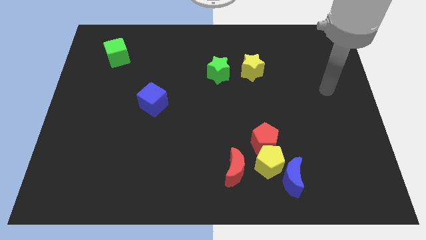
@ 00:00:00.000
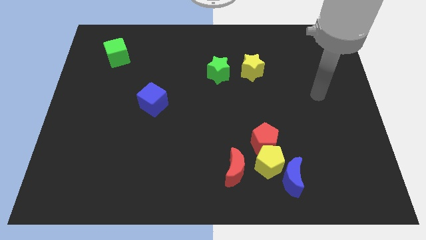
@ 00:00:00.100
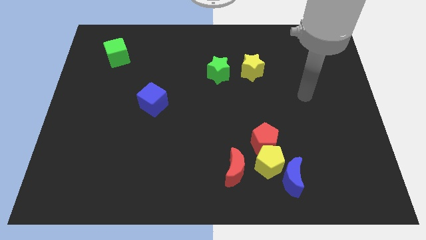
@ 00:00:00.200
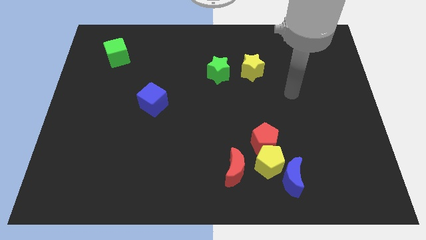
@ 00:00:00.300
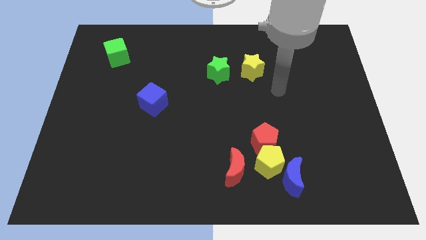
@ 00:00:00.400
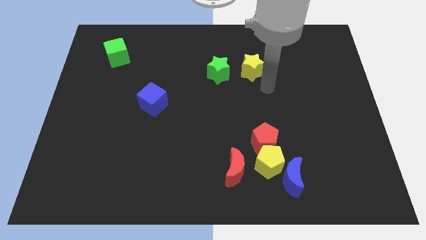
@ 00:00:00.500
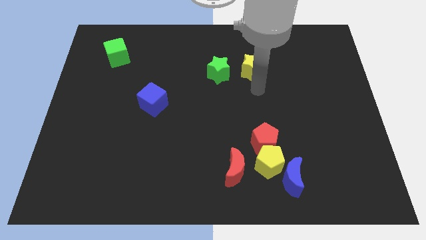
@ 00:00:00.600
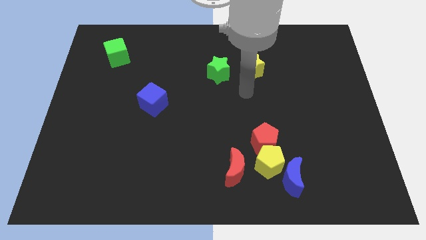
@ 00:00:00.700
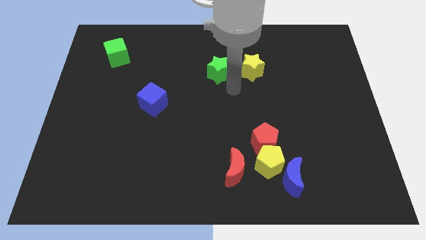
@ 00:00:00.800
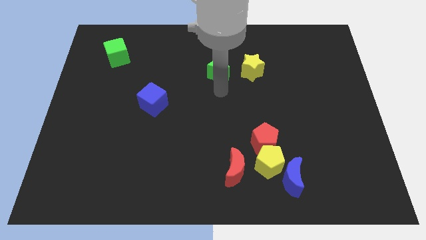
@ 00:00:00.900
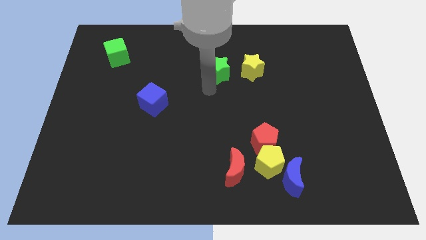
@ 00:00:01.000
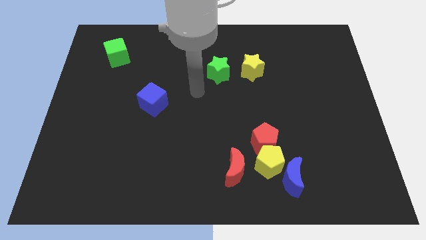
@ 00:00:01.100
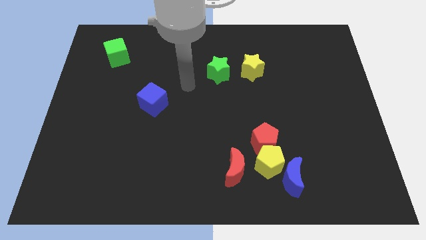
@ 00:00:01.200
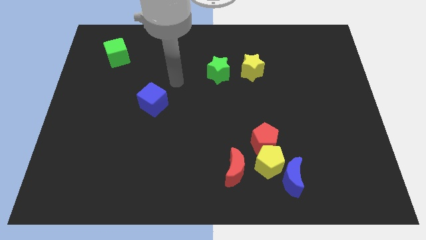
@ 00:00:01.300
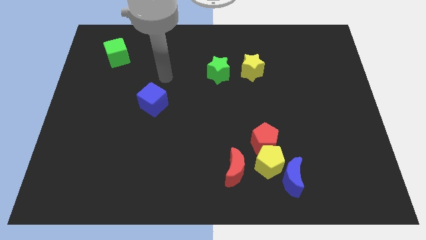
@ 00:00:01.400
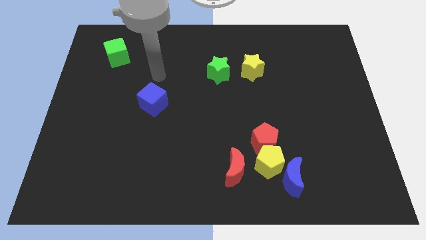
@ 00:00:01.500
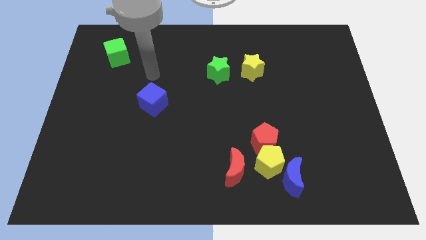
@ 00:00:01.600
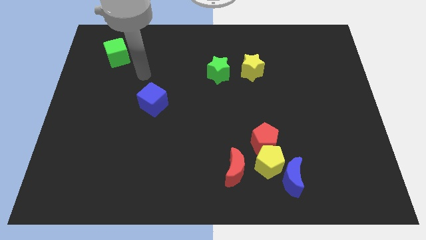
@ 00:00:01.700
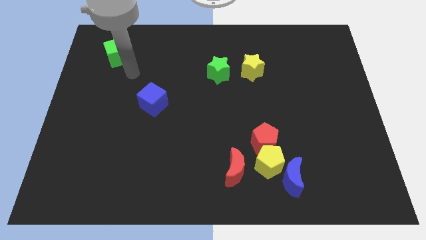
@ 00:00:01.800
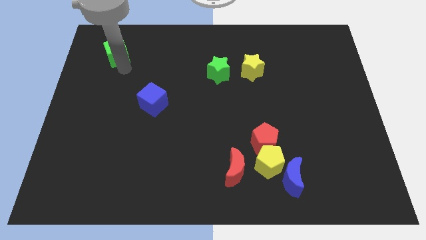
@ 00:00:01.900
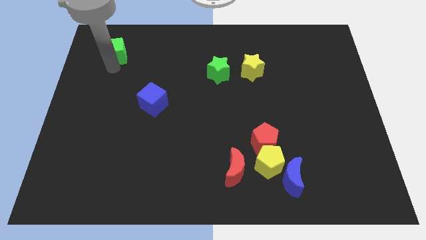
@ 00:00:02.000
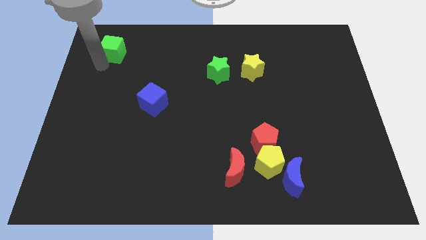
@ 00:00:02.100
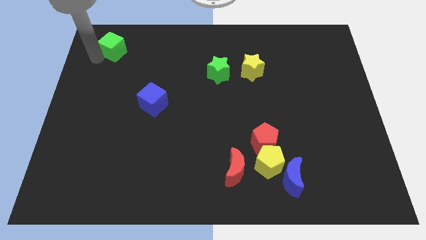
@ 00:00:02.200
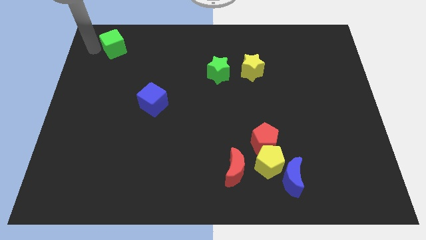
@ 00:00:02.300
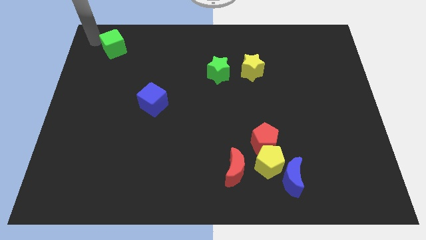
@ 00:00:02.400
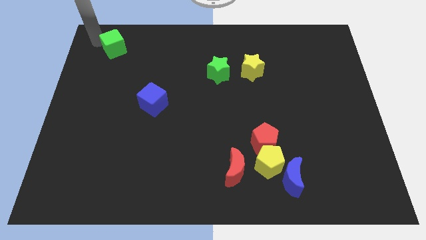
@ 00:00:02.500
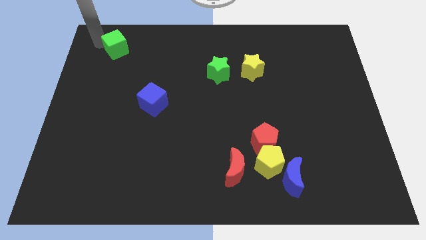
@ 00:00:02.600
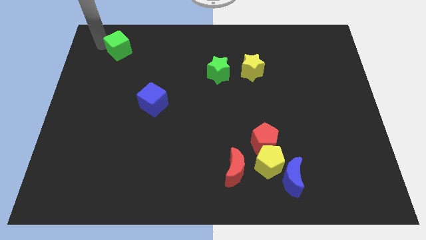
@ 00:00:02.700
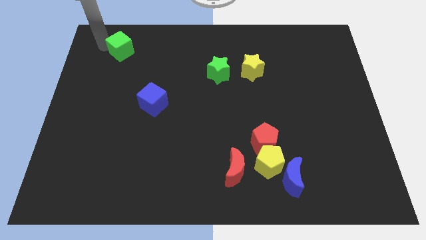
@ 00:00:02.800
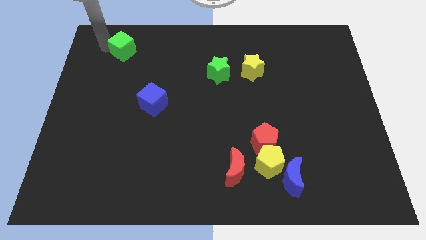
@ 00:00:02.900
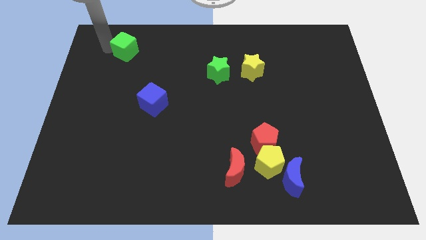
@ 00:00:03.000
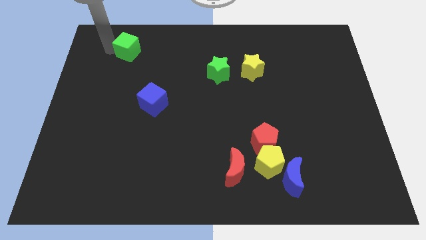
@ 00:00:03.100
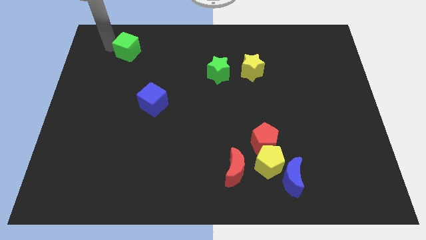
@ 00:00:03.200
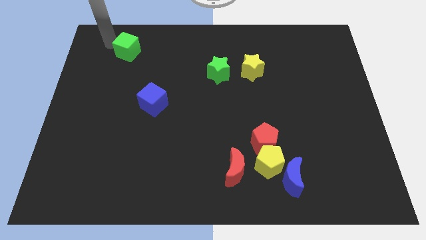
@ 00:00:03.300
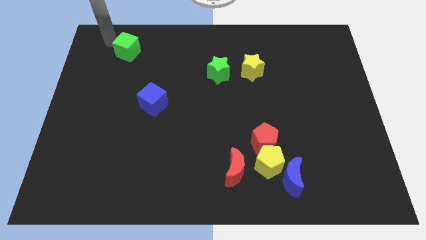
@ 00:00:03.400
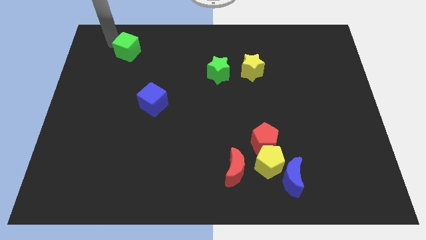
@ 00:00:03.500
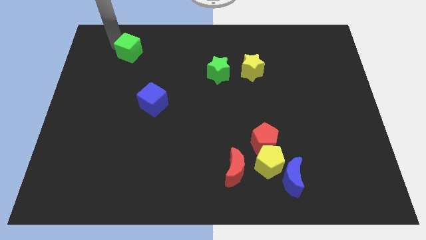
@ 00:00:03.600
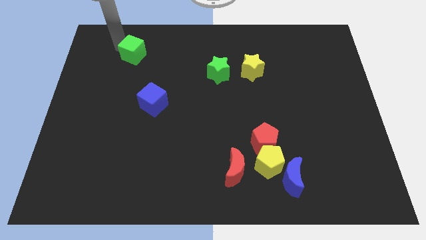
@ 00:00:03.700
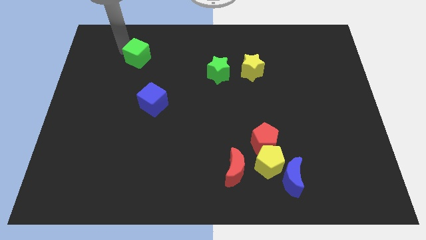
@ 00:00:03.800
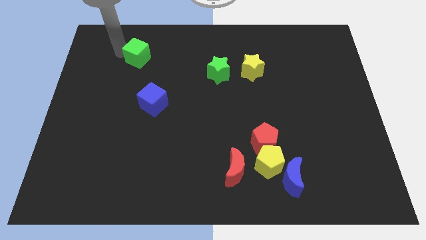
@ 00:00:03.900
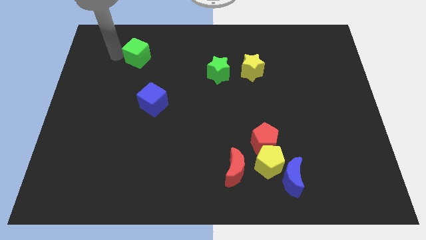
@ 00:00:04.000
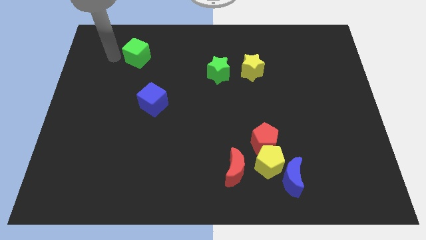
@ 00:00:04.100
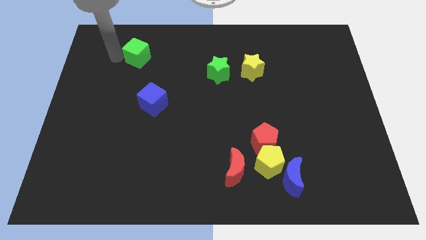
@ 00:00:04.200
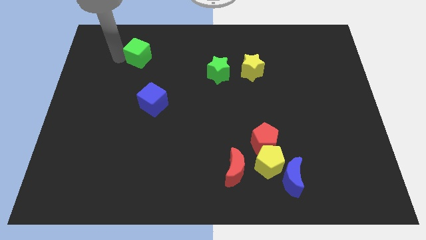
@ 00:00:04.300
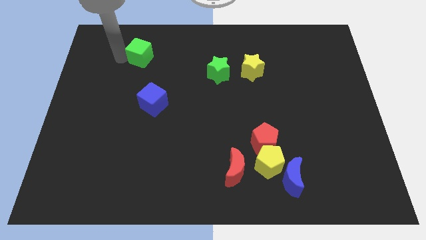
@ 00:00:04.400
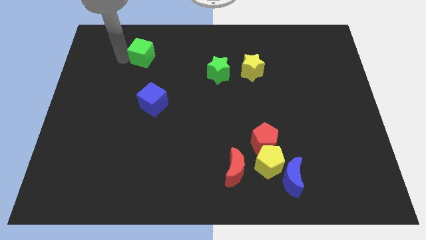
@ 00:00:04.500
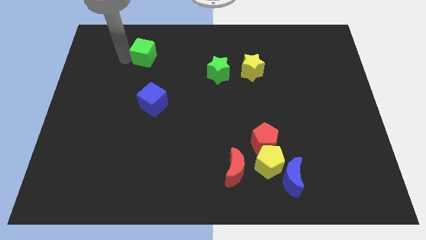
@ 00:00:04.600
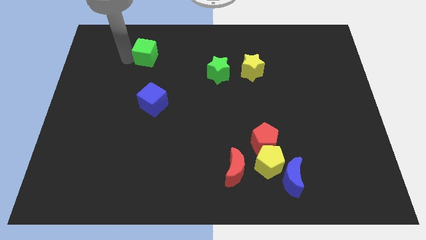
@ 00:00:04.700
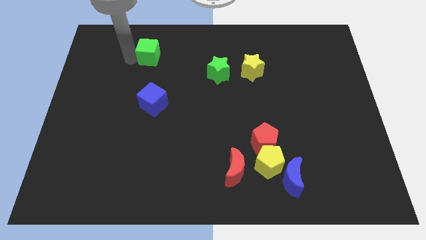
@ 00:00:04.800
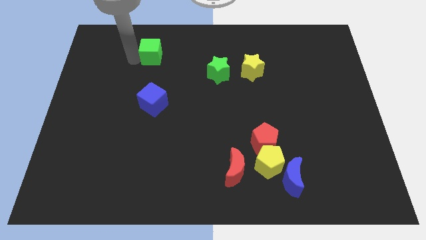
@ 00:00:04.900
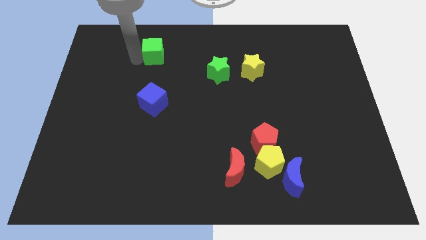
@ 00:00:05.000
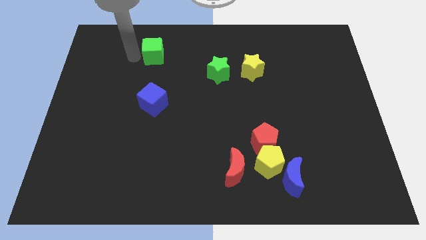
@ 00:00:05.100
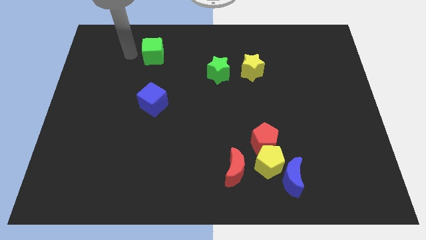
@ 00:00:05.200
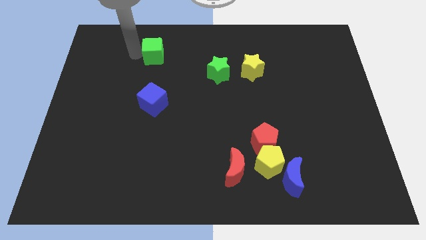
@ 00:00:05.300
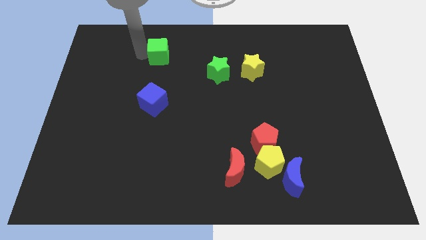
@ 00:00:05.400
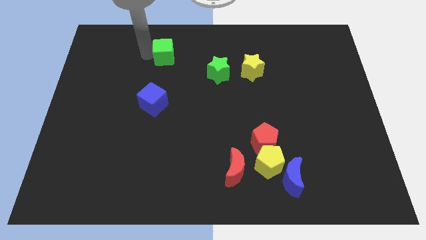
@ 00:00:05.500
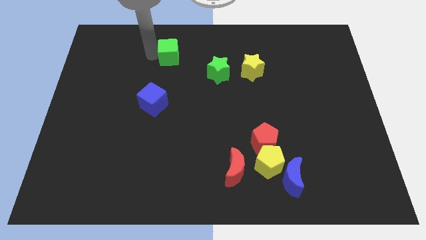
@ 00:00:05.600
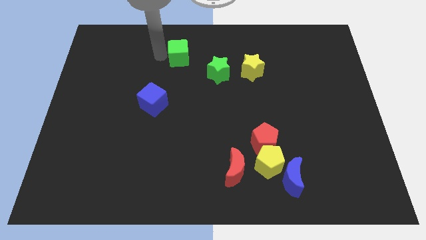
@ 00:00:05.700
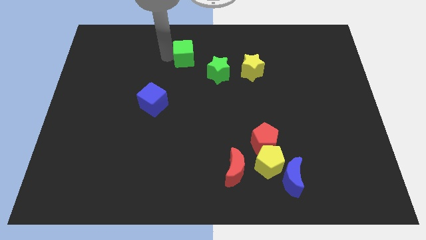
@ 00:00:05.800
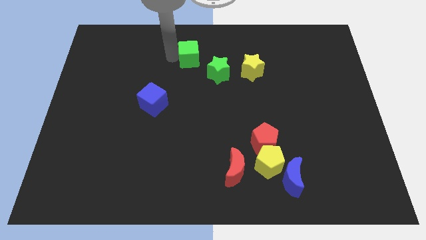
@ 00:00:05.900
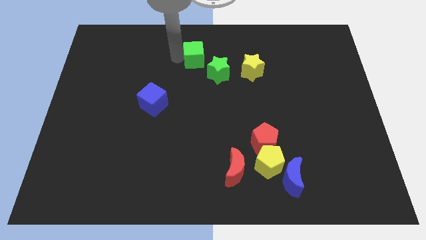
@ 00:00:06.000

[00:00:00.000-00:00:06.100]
push the green cube right

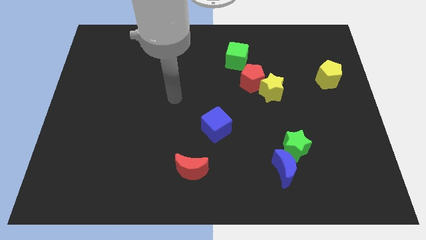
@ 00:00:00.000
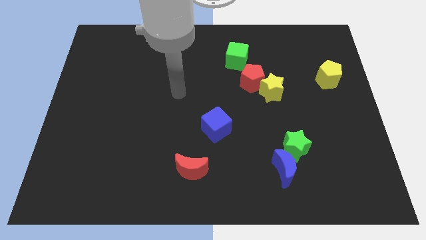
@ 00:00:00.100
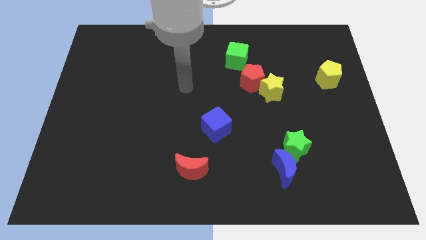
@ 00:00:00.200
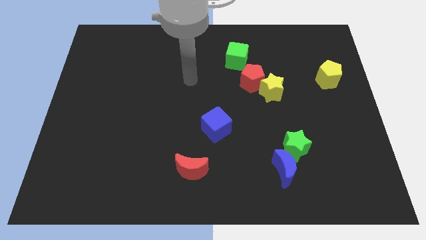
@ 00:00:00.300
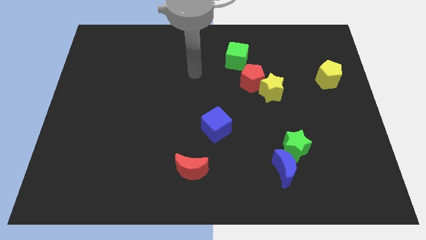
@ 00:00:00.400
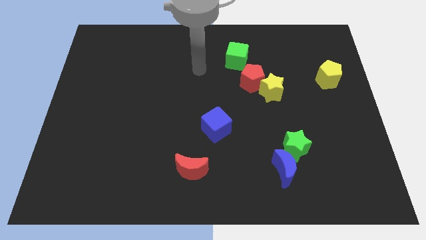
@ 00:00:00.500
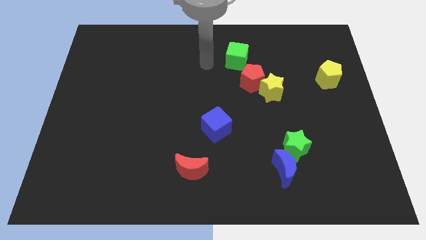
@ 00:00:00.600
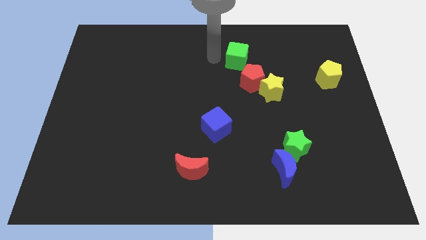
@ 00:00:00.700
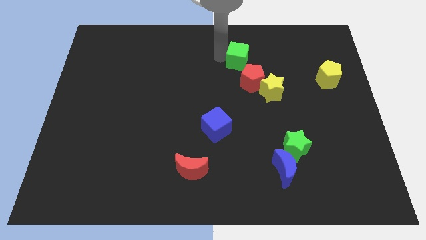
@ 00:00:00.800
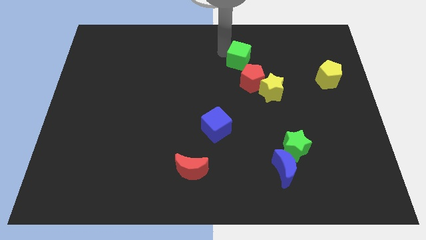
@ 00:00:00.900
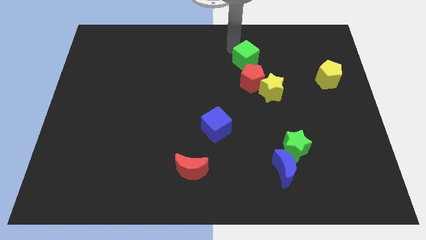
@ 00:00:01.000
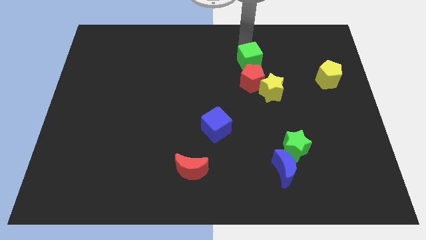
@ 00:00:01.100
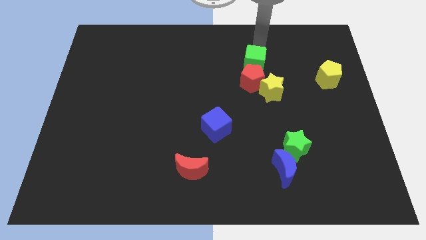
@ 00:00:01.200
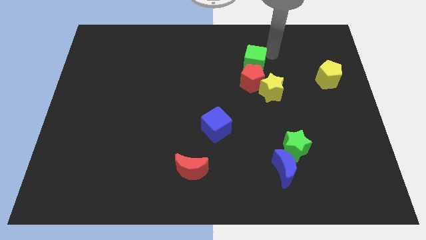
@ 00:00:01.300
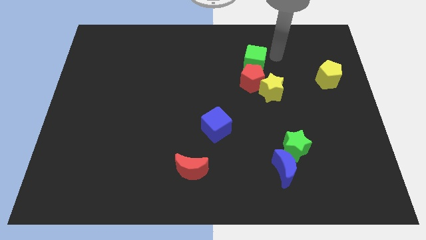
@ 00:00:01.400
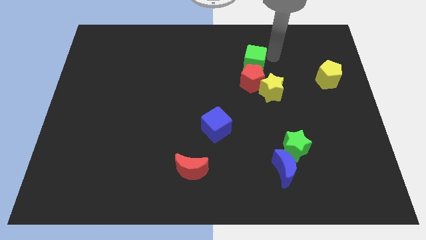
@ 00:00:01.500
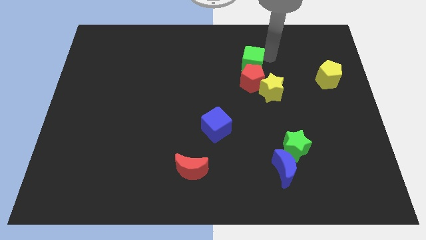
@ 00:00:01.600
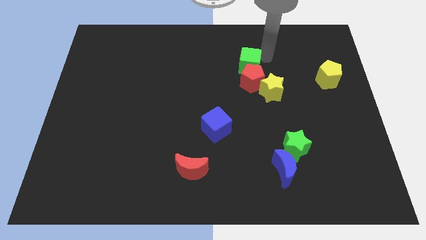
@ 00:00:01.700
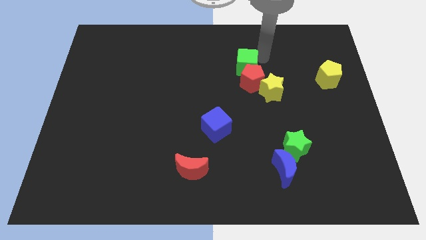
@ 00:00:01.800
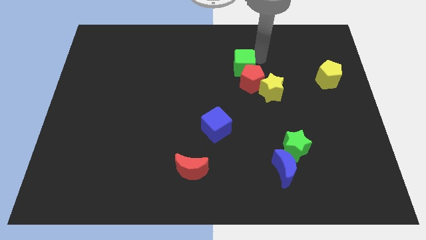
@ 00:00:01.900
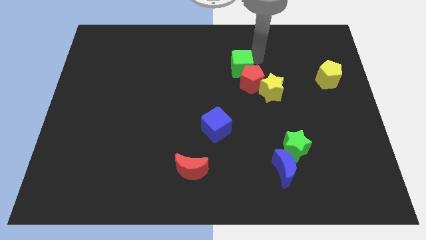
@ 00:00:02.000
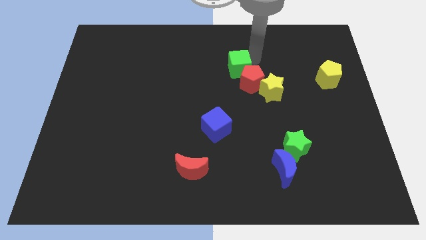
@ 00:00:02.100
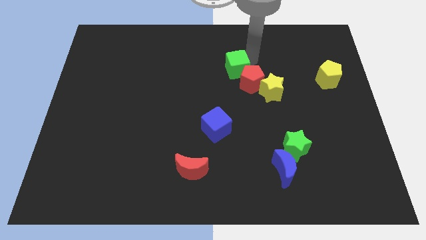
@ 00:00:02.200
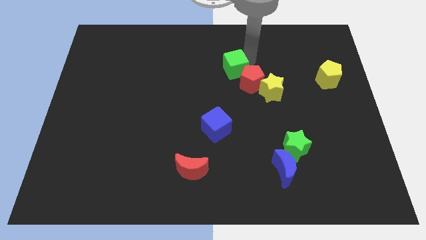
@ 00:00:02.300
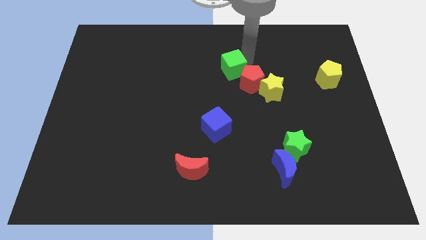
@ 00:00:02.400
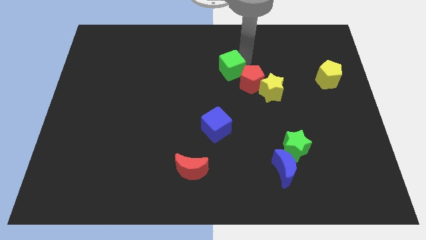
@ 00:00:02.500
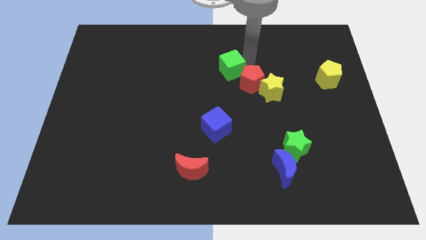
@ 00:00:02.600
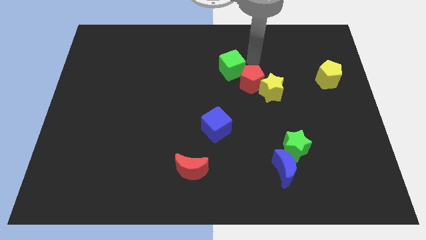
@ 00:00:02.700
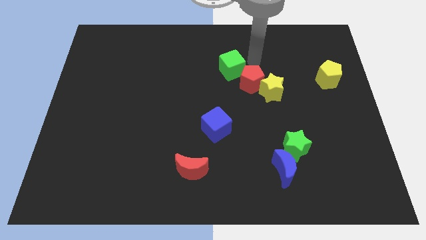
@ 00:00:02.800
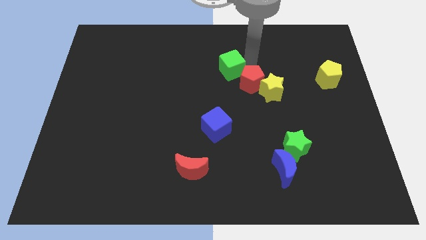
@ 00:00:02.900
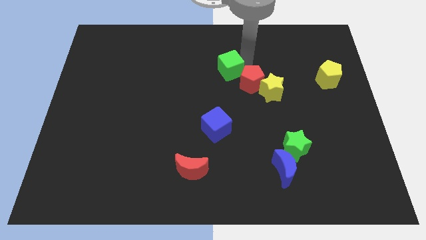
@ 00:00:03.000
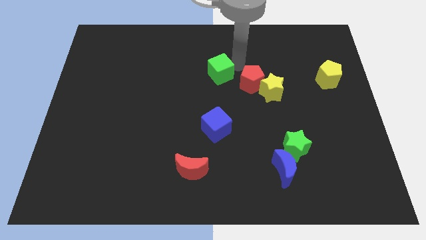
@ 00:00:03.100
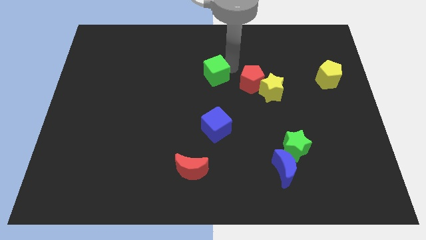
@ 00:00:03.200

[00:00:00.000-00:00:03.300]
slide the green cube down and to the left slightly
